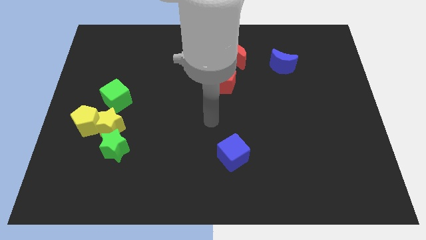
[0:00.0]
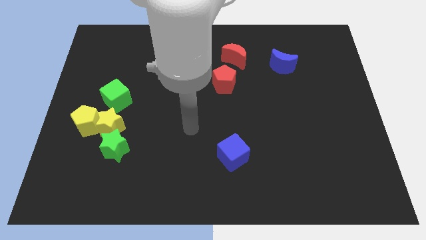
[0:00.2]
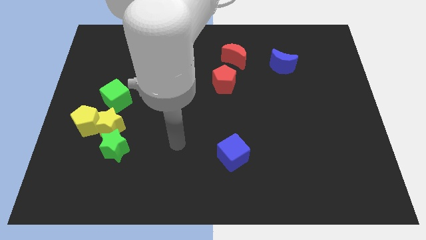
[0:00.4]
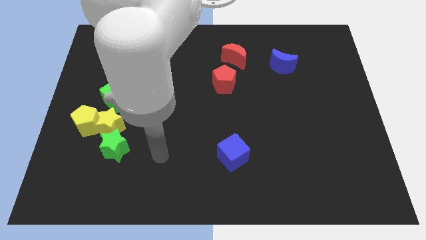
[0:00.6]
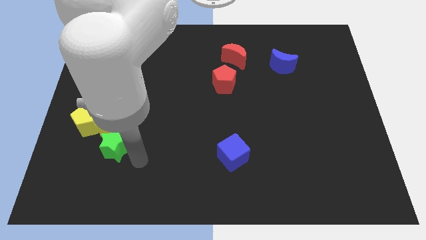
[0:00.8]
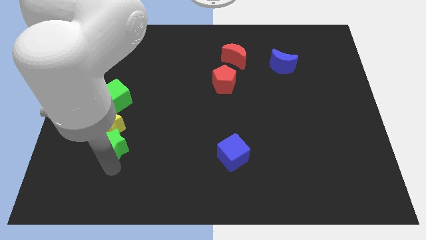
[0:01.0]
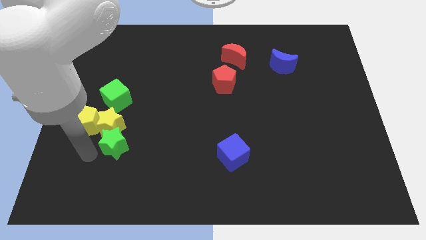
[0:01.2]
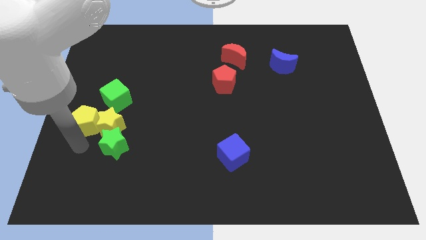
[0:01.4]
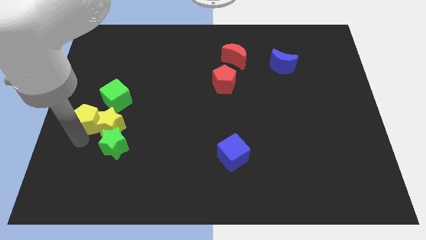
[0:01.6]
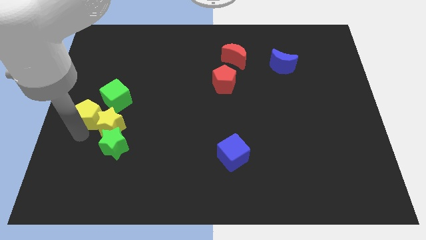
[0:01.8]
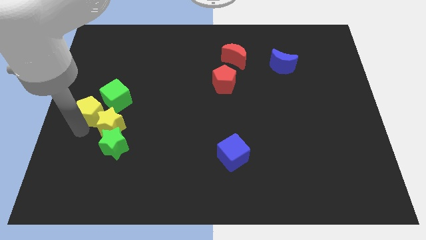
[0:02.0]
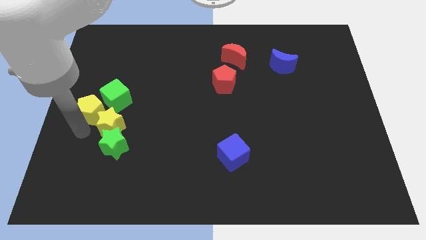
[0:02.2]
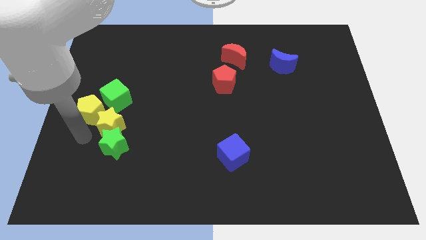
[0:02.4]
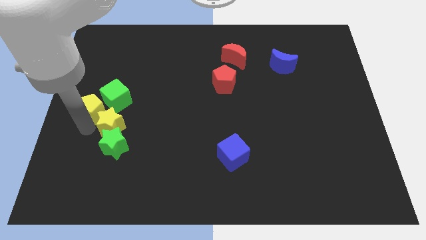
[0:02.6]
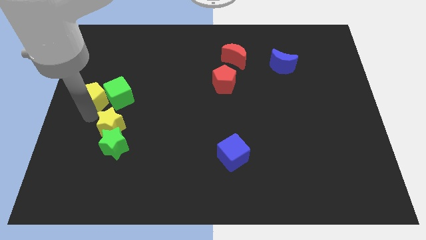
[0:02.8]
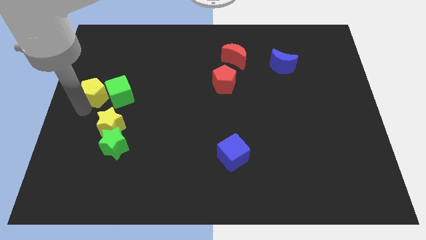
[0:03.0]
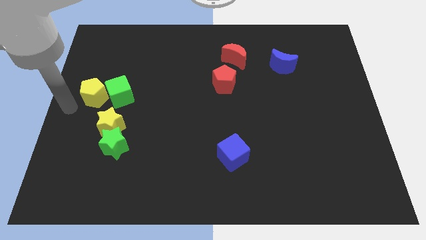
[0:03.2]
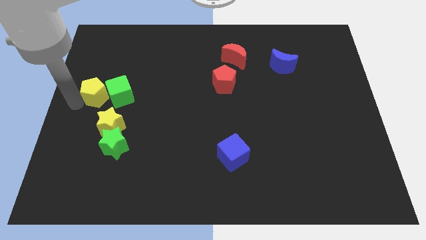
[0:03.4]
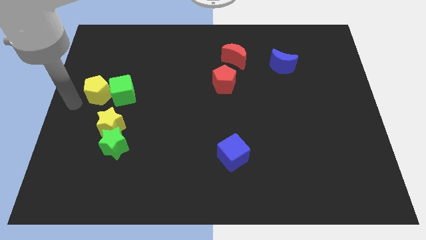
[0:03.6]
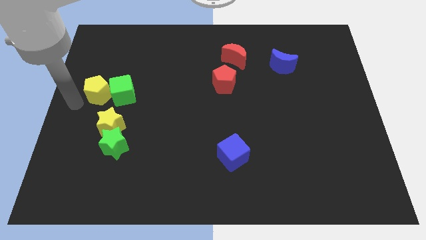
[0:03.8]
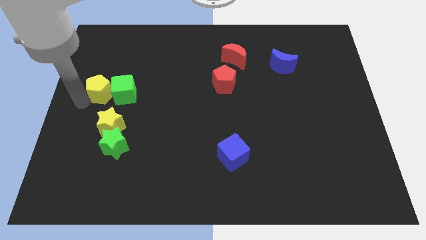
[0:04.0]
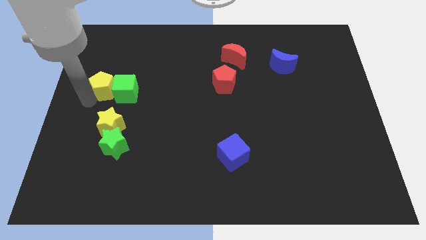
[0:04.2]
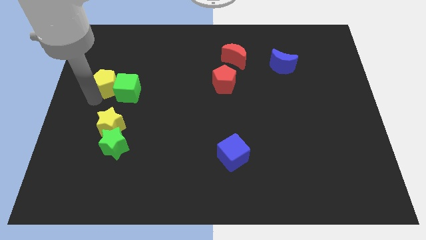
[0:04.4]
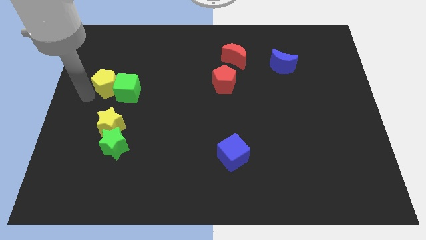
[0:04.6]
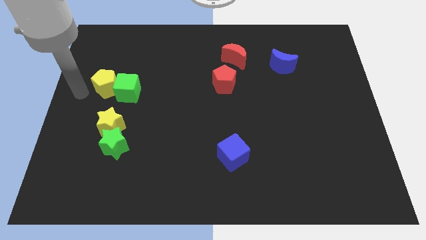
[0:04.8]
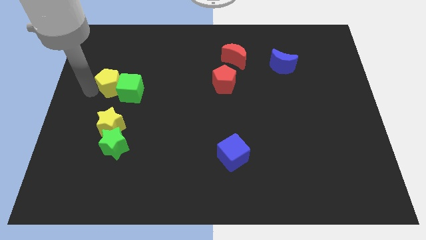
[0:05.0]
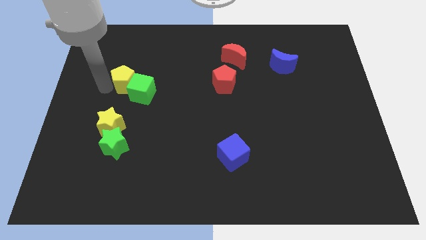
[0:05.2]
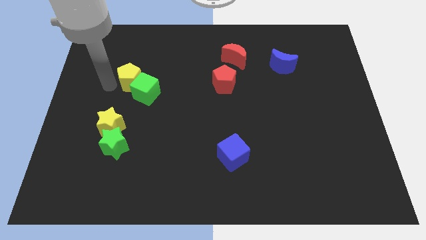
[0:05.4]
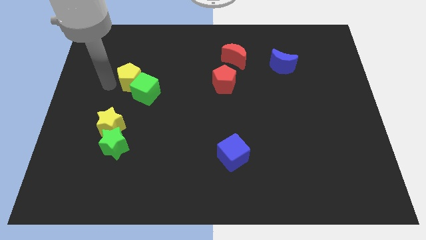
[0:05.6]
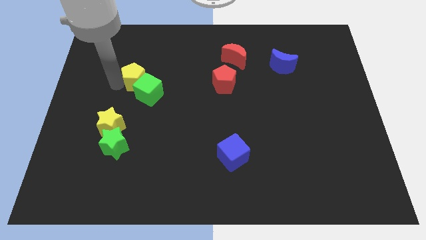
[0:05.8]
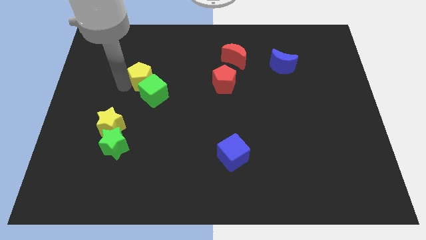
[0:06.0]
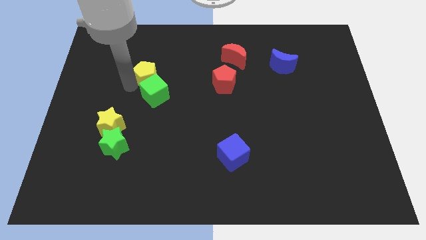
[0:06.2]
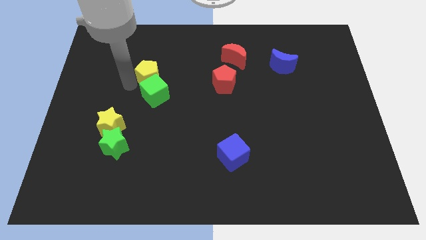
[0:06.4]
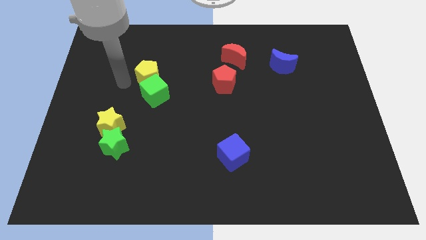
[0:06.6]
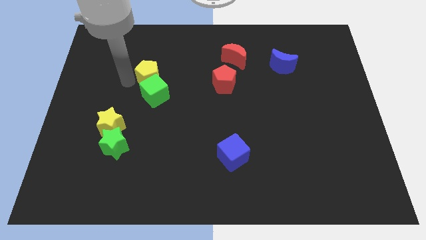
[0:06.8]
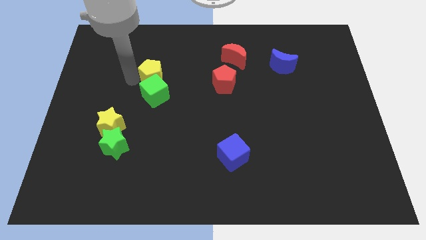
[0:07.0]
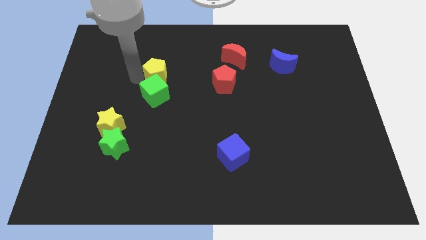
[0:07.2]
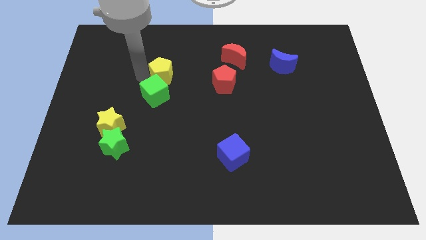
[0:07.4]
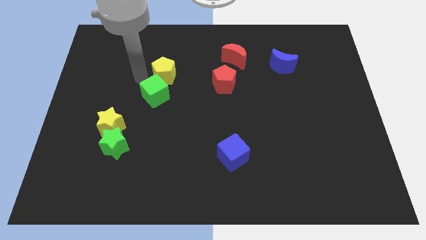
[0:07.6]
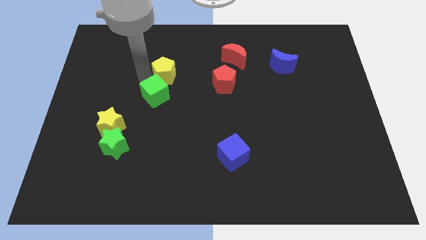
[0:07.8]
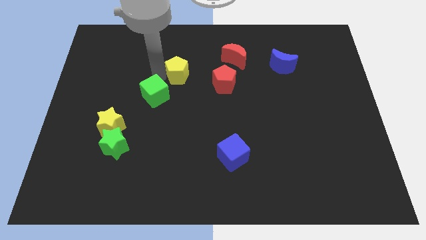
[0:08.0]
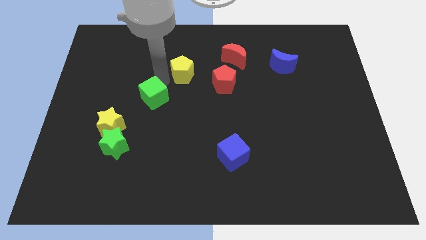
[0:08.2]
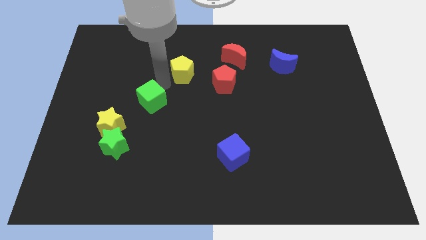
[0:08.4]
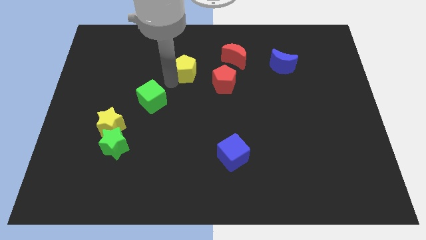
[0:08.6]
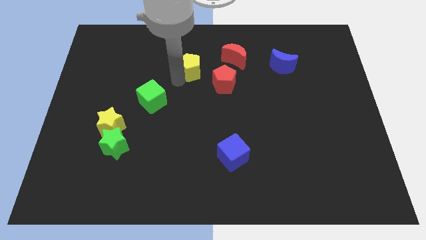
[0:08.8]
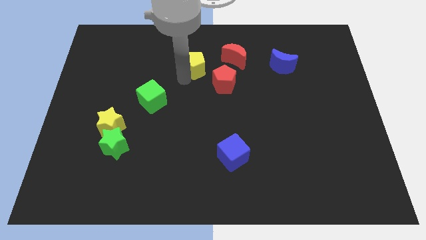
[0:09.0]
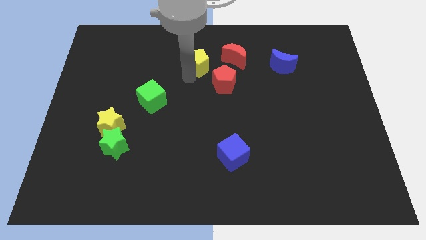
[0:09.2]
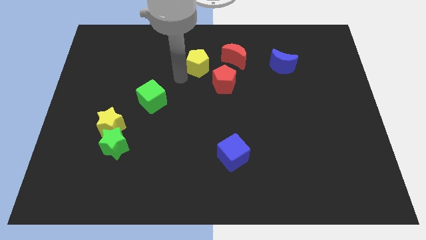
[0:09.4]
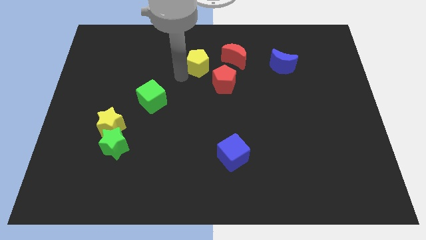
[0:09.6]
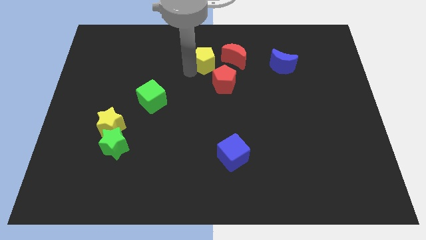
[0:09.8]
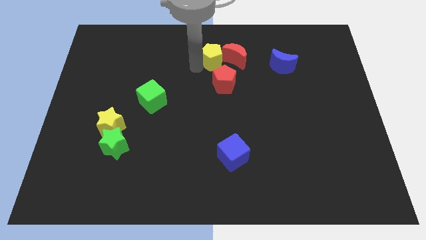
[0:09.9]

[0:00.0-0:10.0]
move the yellow pentagon towards the red moon

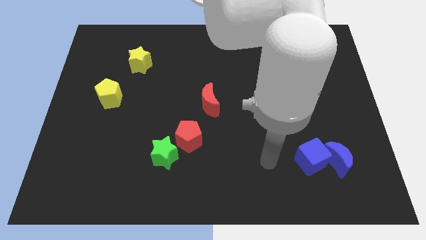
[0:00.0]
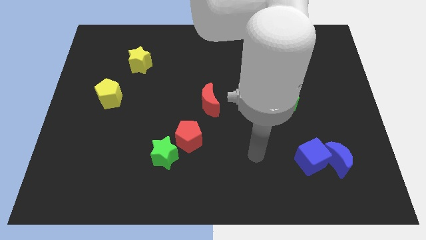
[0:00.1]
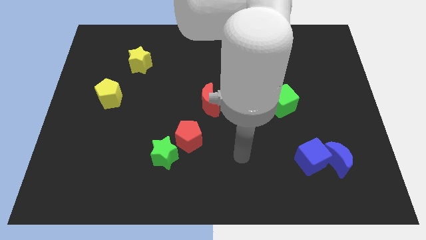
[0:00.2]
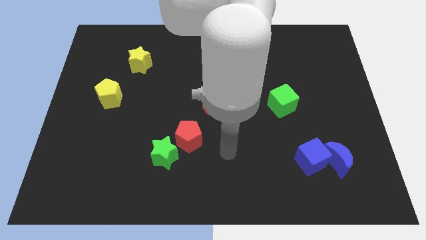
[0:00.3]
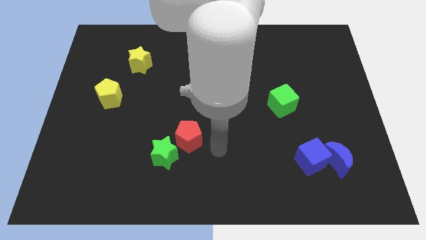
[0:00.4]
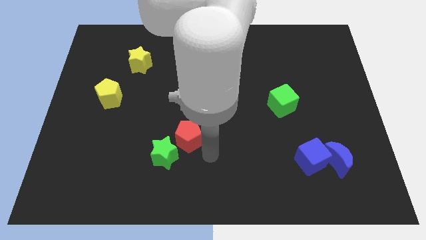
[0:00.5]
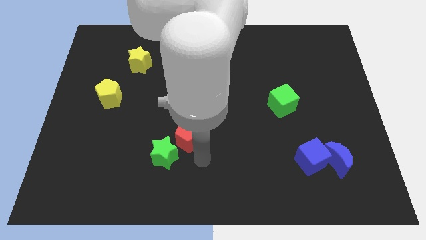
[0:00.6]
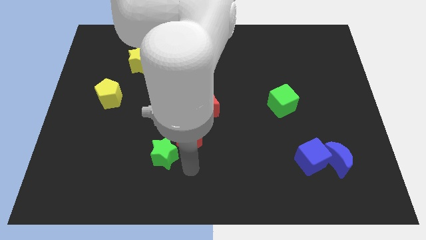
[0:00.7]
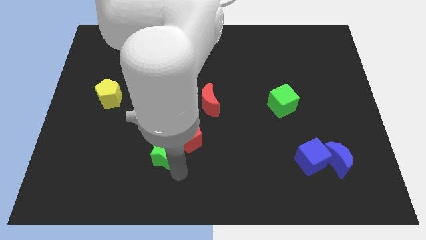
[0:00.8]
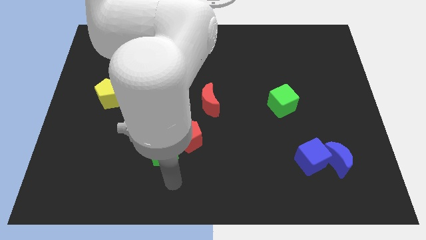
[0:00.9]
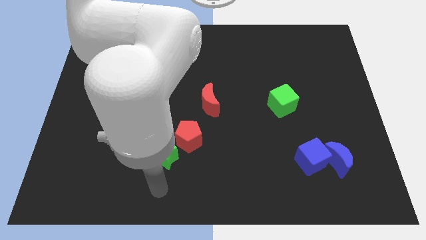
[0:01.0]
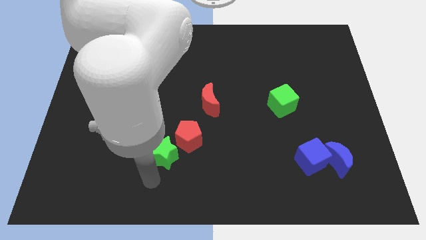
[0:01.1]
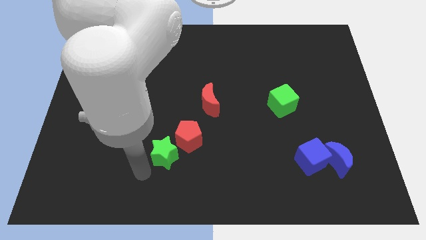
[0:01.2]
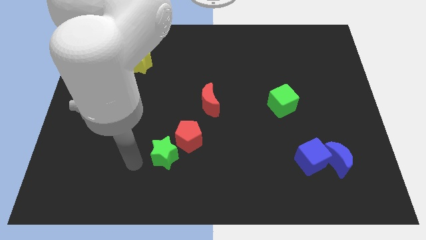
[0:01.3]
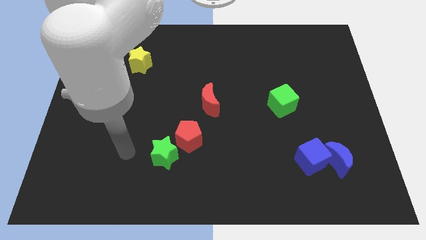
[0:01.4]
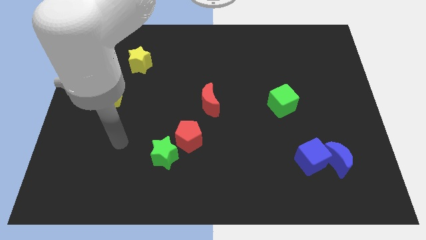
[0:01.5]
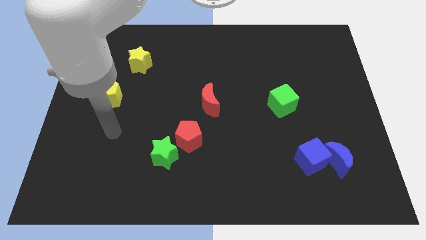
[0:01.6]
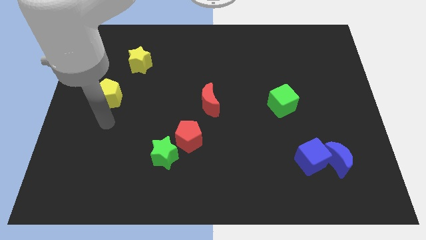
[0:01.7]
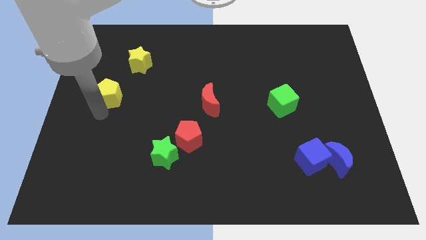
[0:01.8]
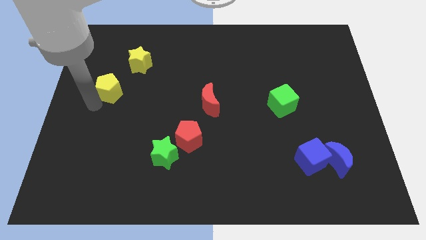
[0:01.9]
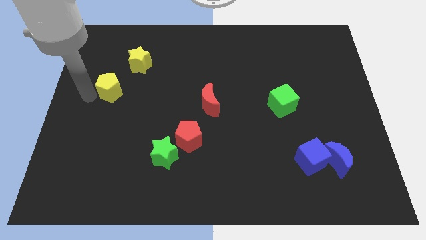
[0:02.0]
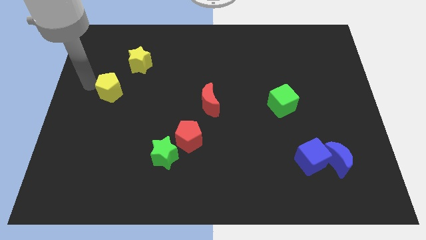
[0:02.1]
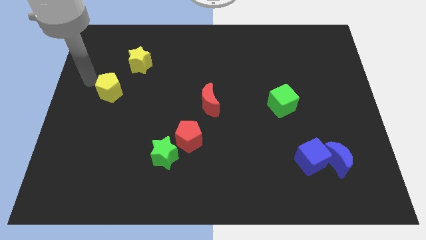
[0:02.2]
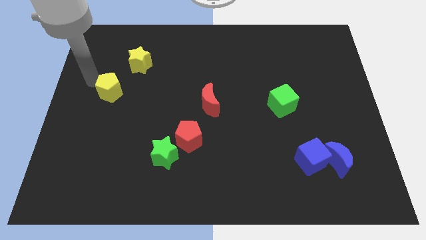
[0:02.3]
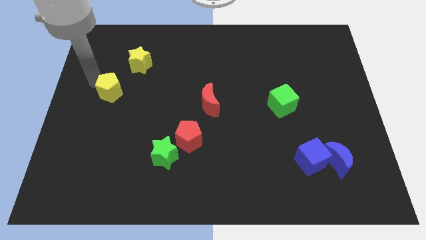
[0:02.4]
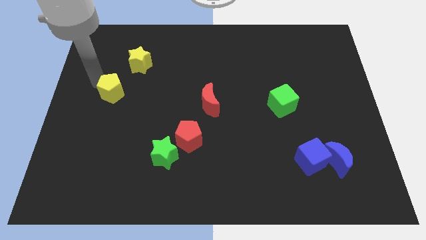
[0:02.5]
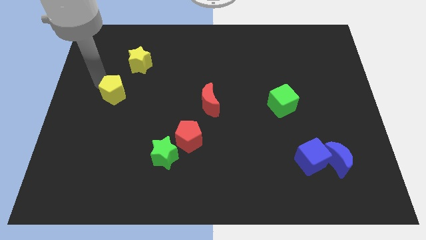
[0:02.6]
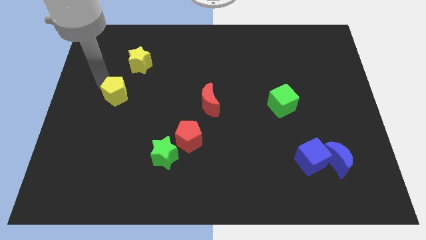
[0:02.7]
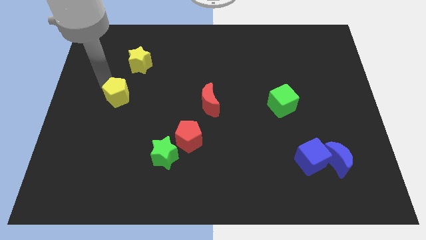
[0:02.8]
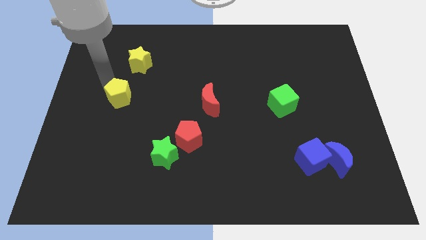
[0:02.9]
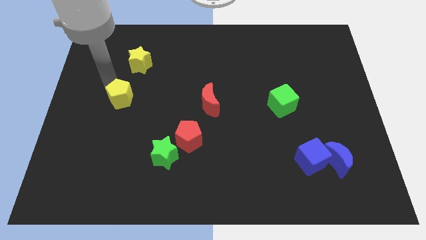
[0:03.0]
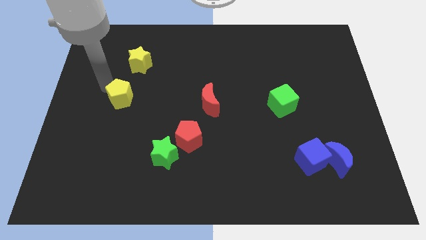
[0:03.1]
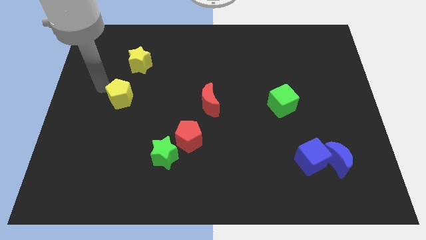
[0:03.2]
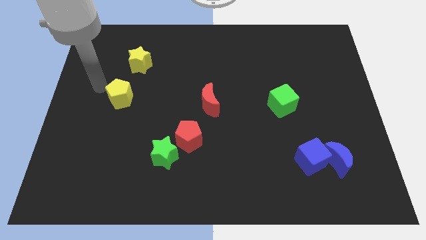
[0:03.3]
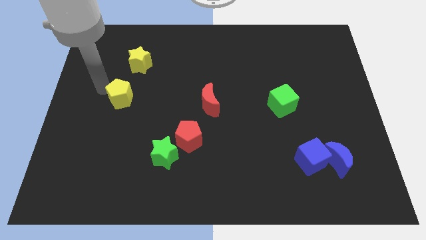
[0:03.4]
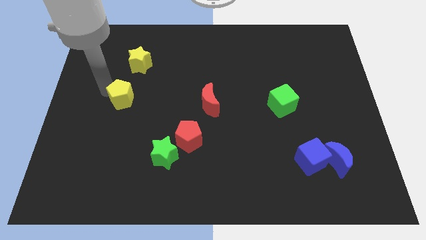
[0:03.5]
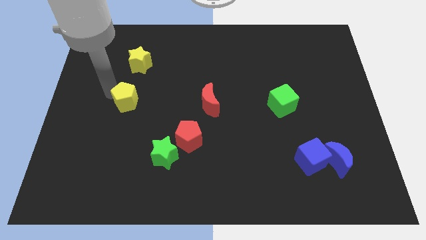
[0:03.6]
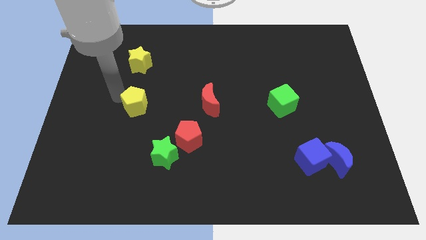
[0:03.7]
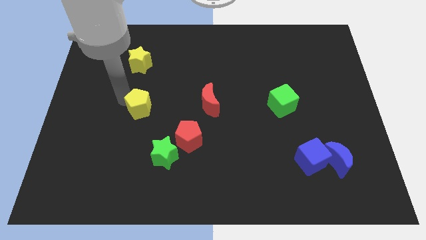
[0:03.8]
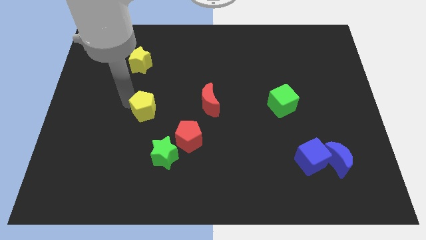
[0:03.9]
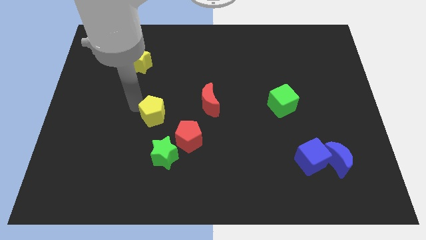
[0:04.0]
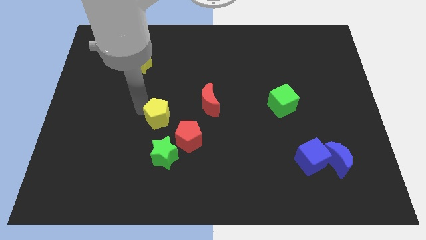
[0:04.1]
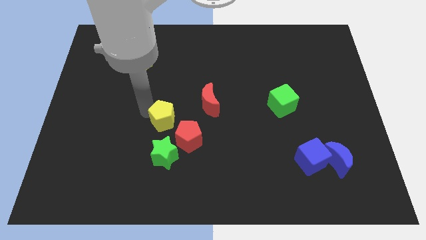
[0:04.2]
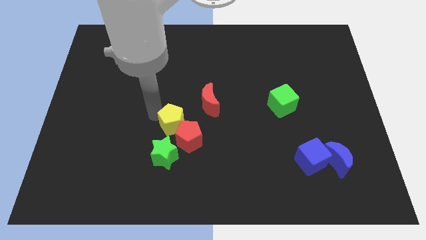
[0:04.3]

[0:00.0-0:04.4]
slide the yellow pentagon next to the red pentagon
